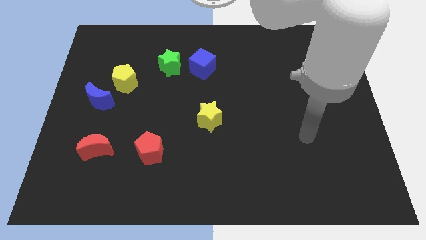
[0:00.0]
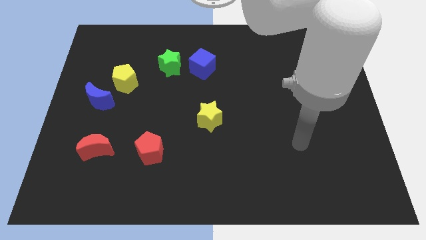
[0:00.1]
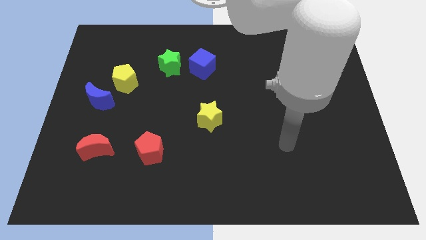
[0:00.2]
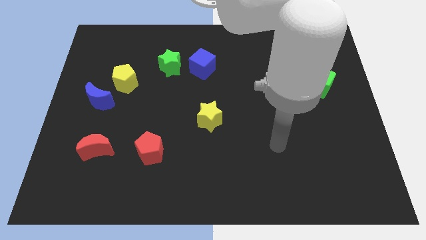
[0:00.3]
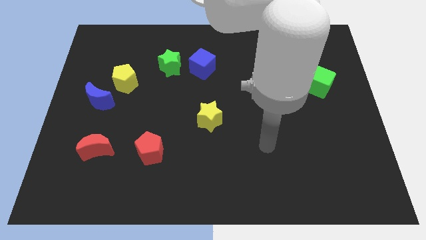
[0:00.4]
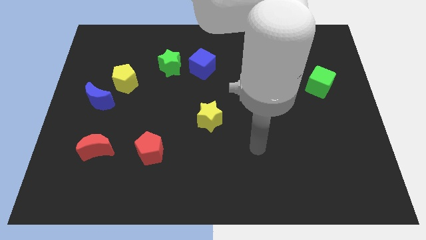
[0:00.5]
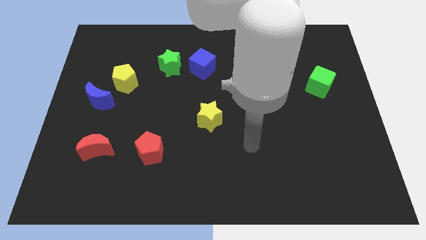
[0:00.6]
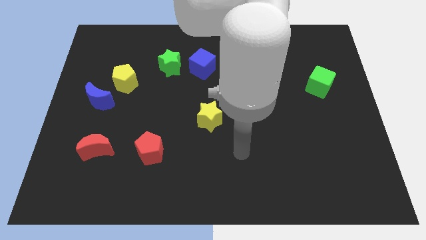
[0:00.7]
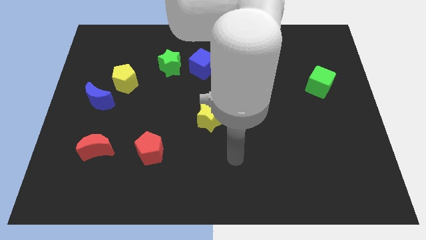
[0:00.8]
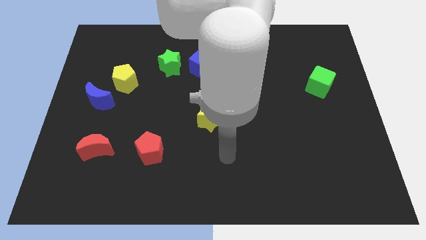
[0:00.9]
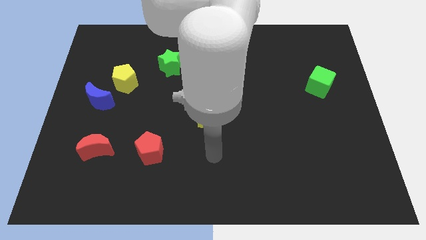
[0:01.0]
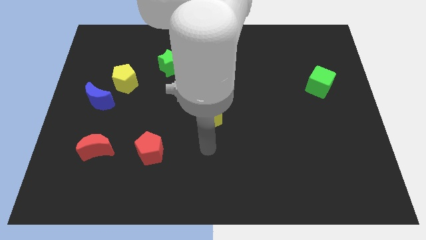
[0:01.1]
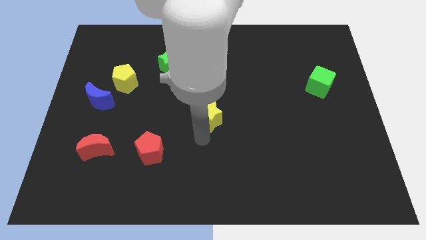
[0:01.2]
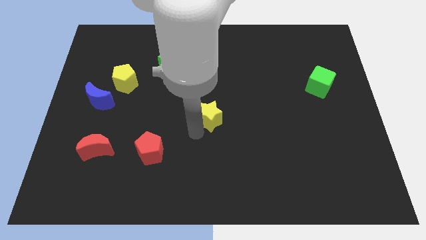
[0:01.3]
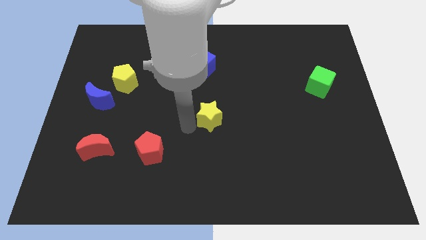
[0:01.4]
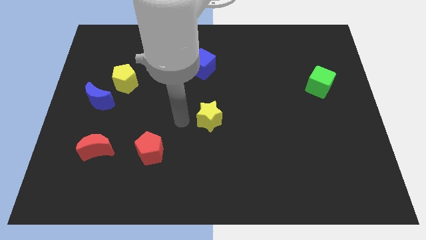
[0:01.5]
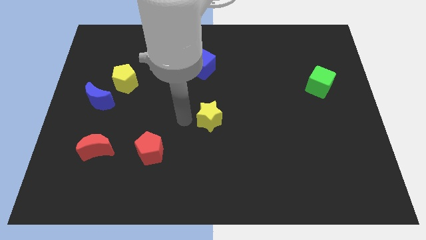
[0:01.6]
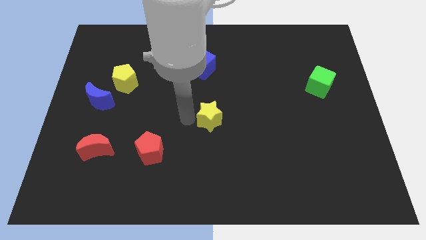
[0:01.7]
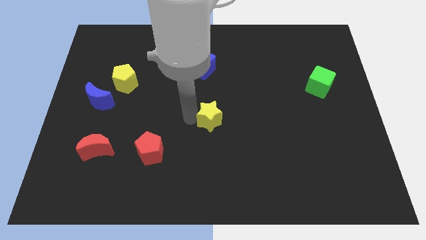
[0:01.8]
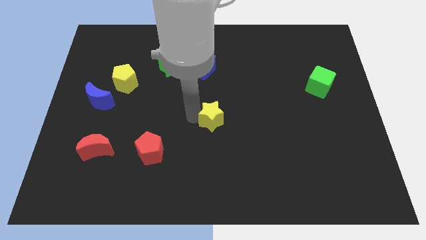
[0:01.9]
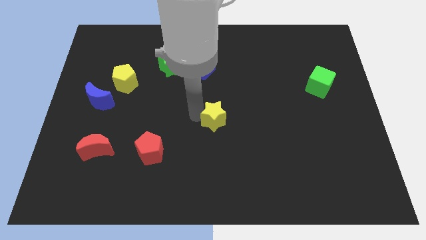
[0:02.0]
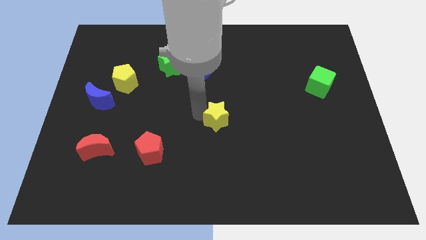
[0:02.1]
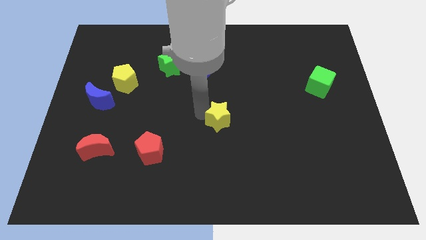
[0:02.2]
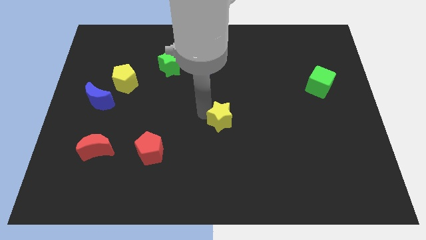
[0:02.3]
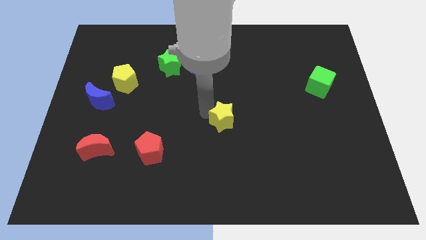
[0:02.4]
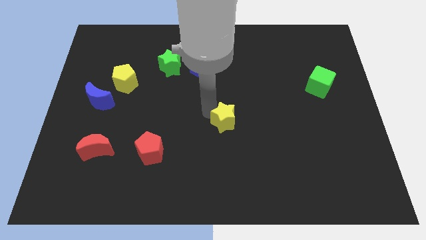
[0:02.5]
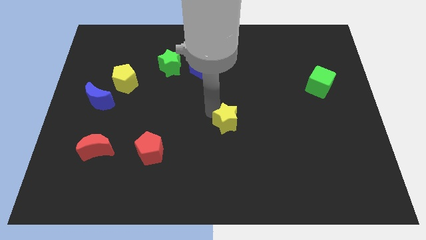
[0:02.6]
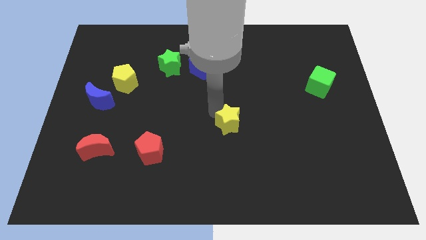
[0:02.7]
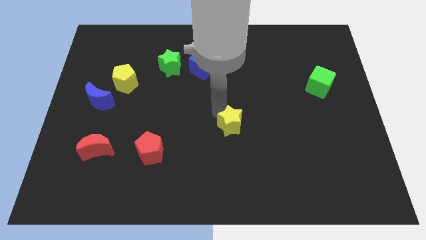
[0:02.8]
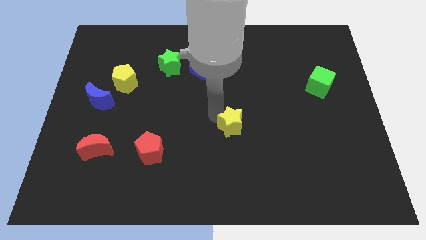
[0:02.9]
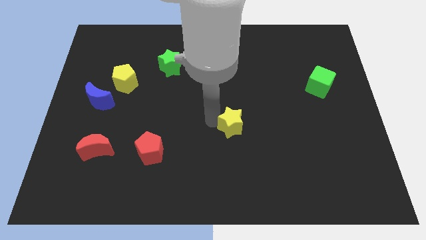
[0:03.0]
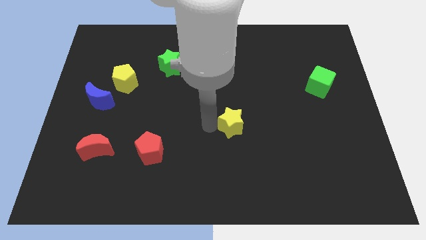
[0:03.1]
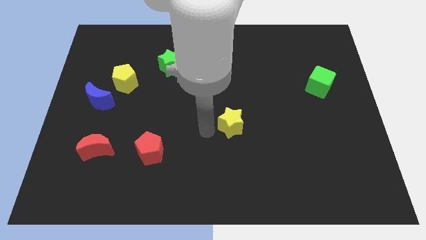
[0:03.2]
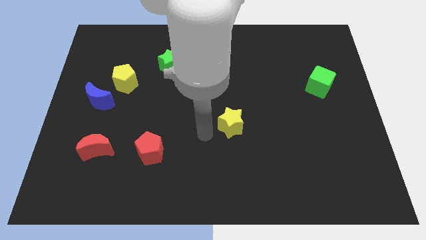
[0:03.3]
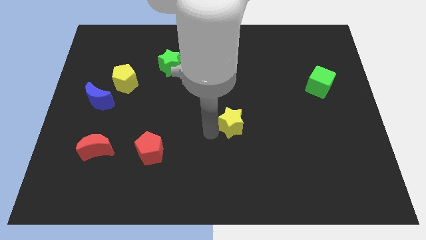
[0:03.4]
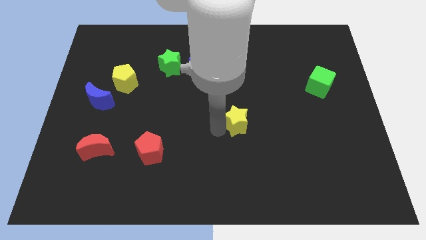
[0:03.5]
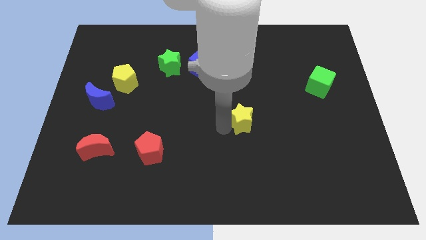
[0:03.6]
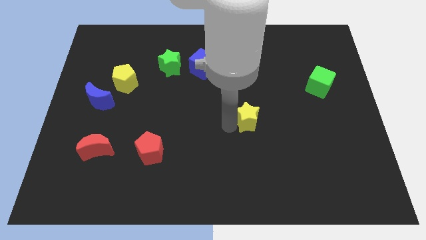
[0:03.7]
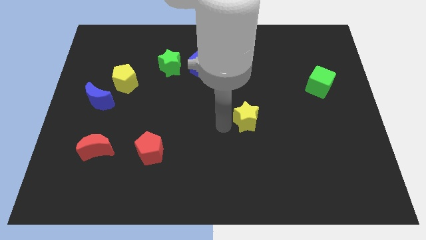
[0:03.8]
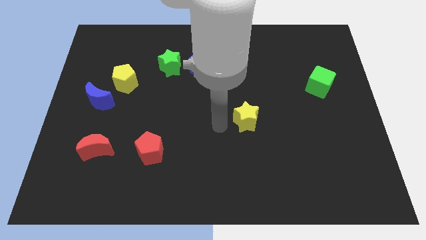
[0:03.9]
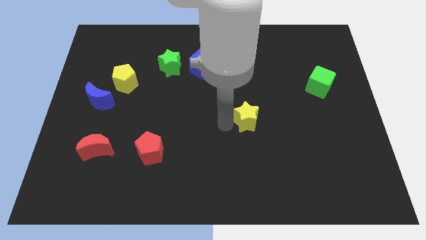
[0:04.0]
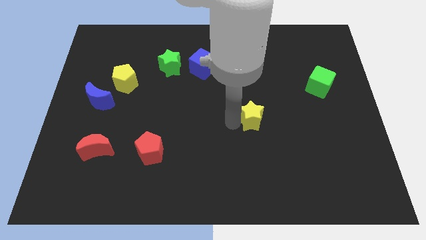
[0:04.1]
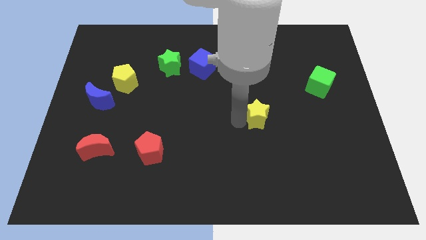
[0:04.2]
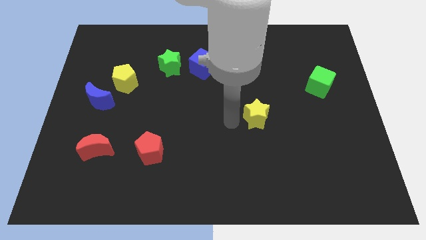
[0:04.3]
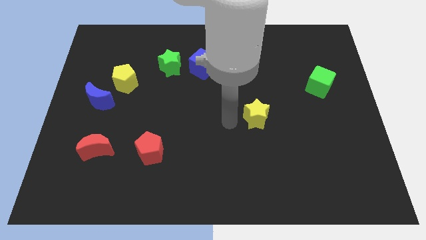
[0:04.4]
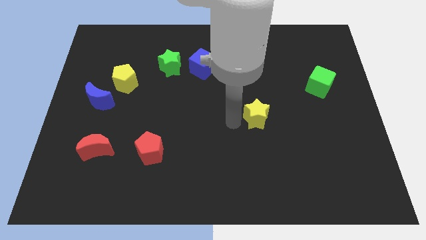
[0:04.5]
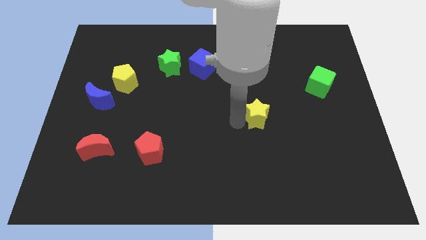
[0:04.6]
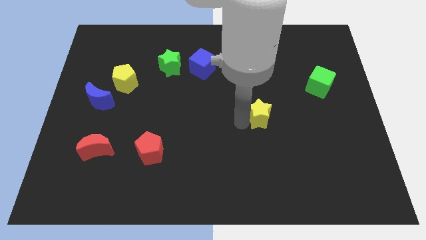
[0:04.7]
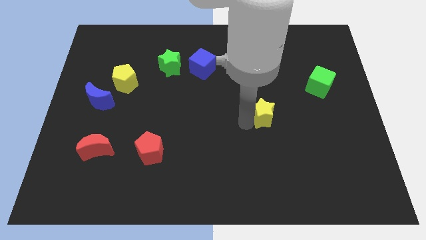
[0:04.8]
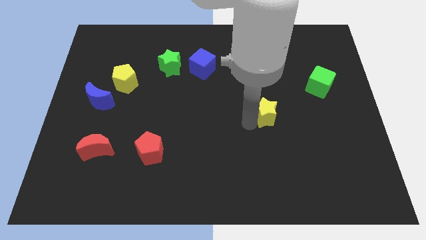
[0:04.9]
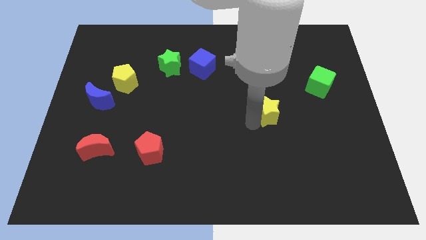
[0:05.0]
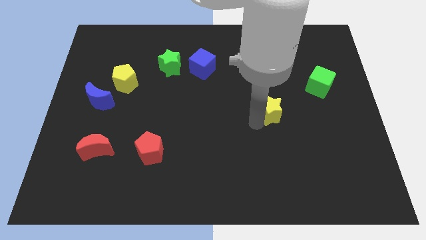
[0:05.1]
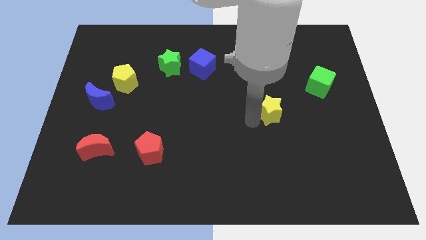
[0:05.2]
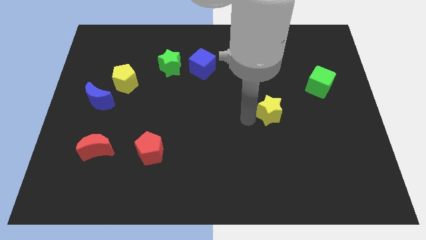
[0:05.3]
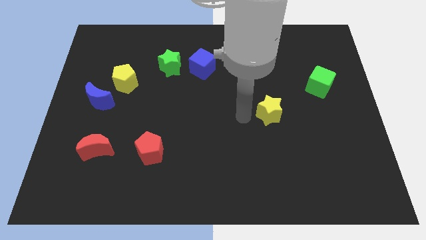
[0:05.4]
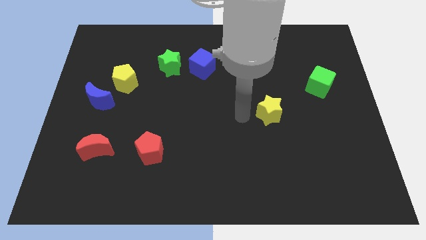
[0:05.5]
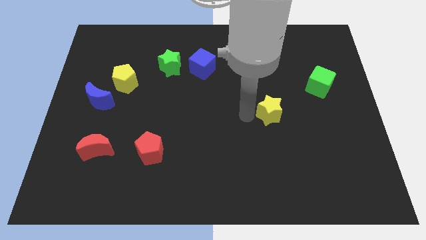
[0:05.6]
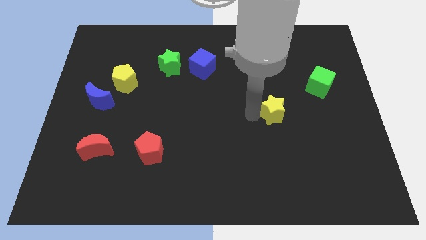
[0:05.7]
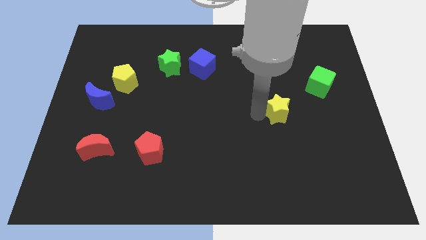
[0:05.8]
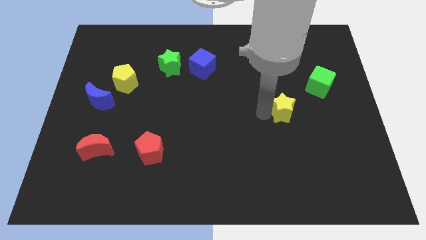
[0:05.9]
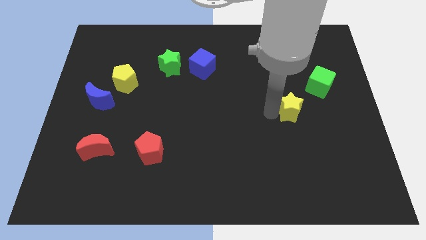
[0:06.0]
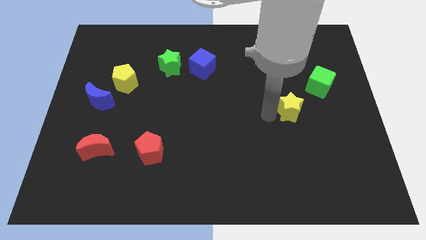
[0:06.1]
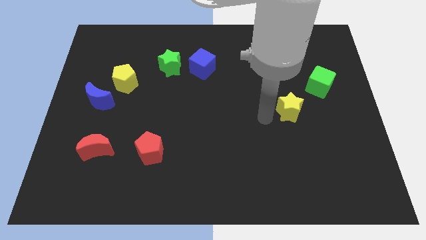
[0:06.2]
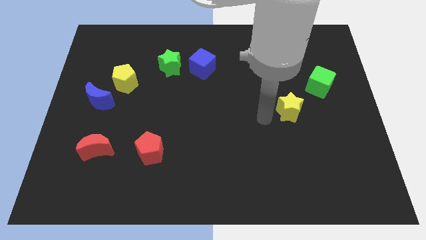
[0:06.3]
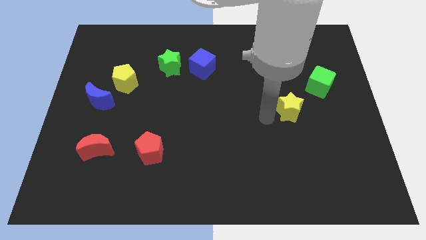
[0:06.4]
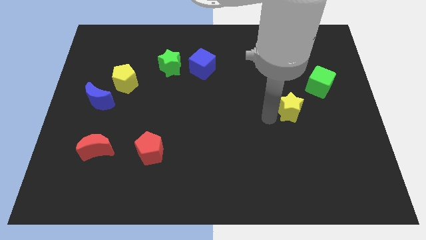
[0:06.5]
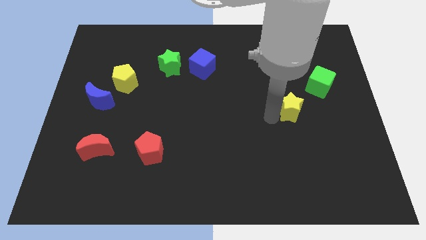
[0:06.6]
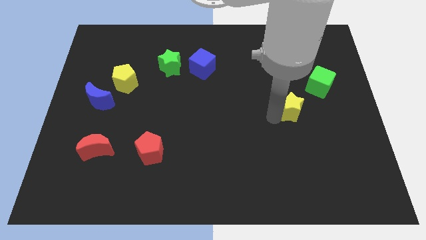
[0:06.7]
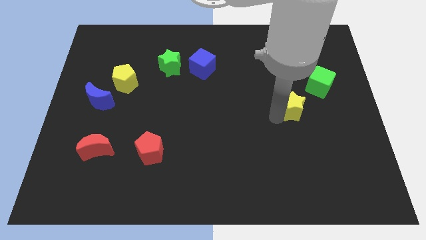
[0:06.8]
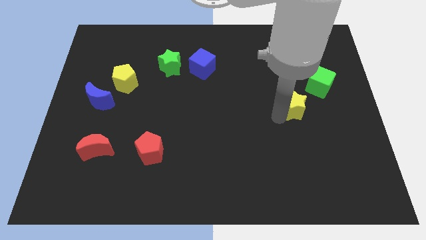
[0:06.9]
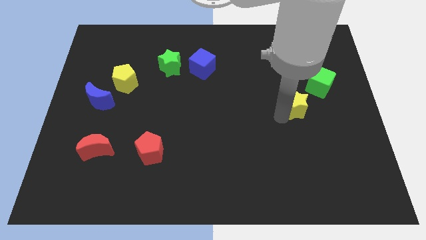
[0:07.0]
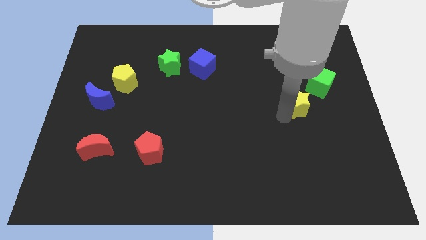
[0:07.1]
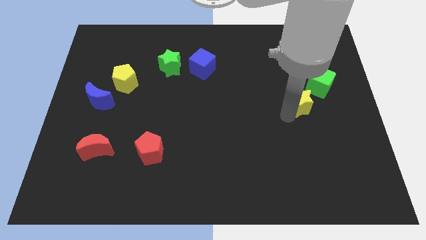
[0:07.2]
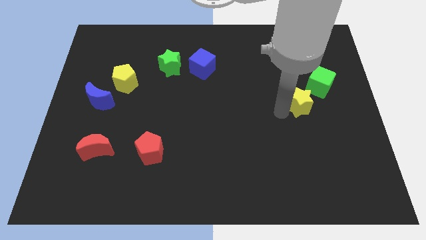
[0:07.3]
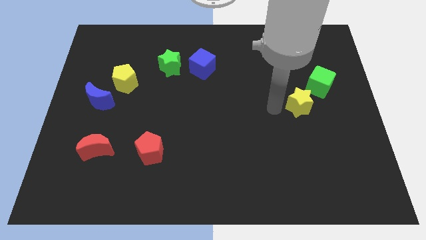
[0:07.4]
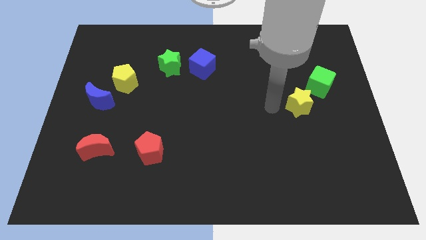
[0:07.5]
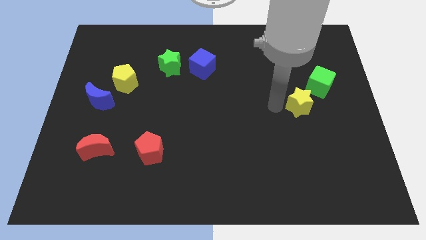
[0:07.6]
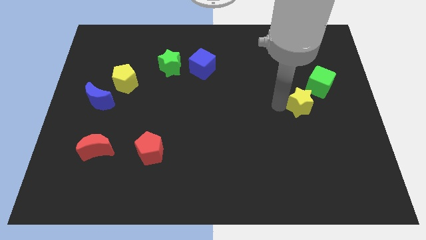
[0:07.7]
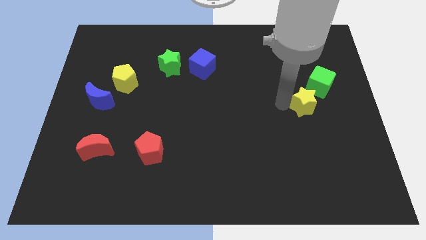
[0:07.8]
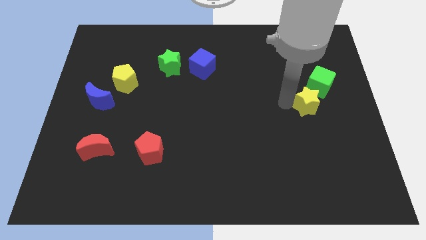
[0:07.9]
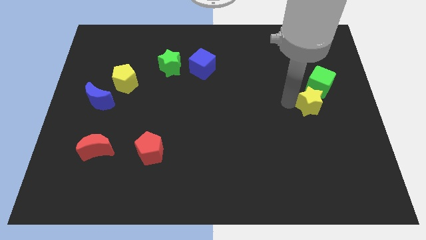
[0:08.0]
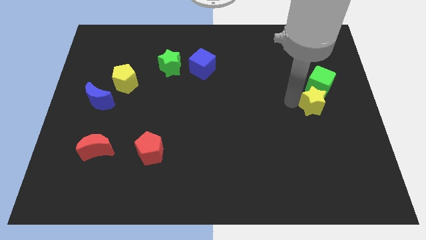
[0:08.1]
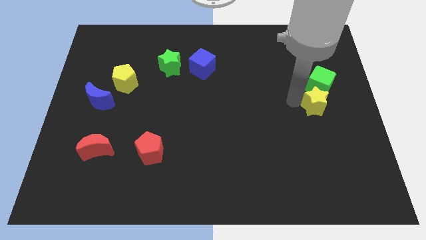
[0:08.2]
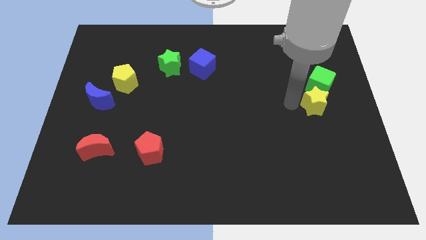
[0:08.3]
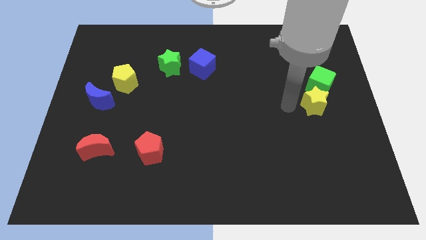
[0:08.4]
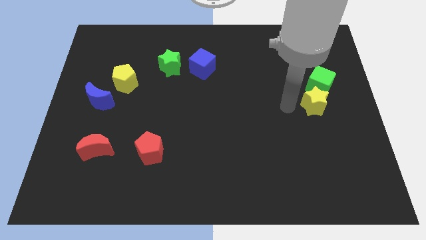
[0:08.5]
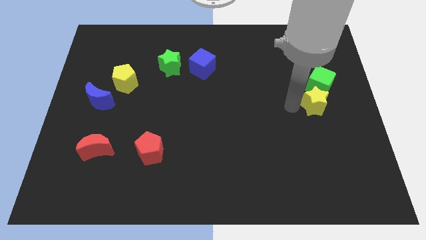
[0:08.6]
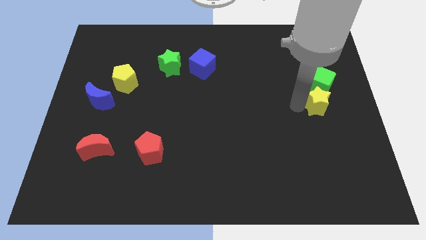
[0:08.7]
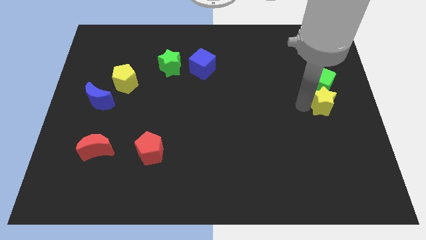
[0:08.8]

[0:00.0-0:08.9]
push the yellow star to the right side
